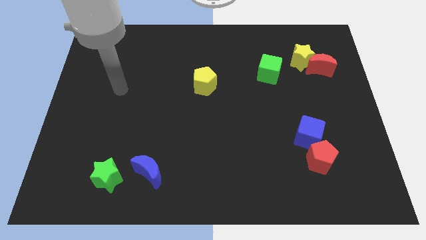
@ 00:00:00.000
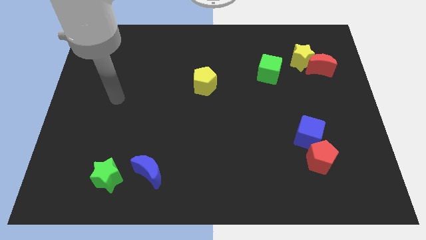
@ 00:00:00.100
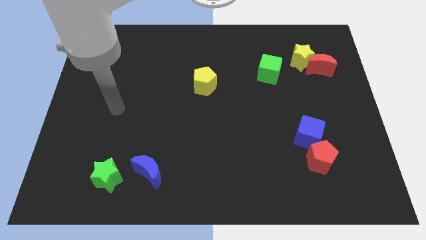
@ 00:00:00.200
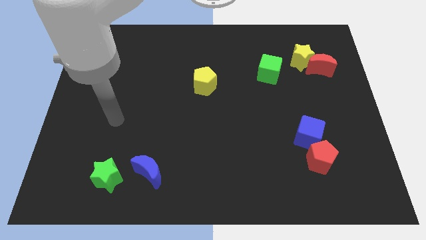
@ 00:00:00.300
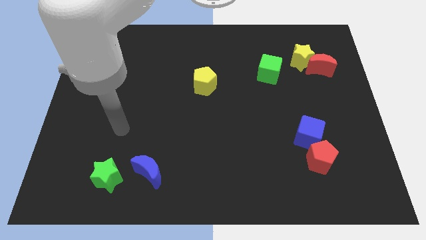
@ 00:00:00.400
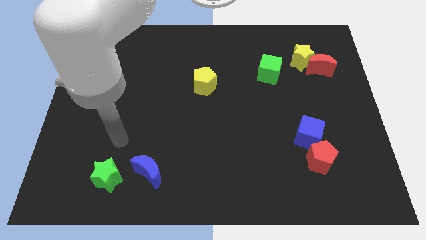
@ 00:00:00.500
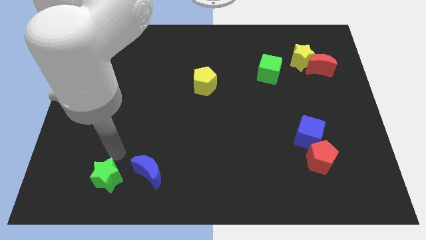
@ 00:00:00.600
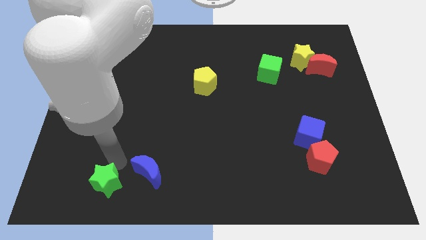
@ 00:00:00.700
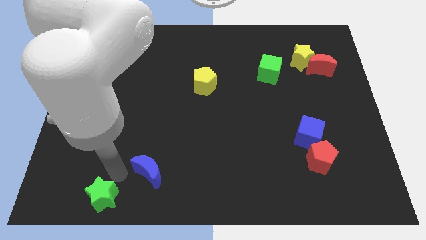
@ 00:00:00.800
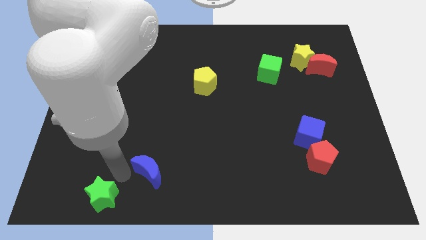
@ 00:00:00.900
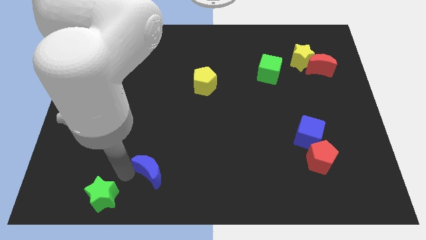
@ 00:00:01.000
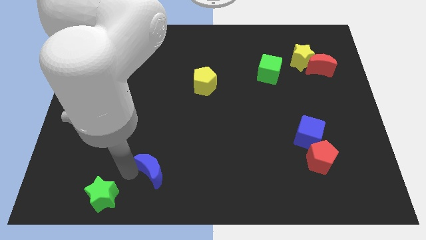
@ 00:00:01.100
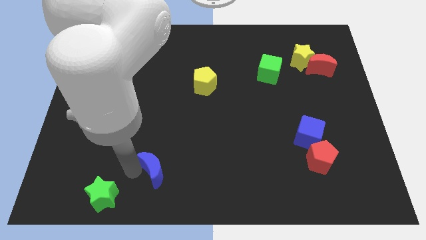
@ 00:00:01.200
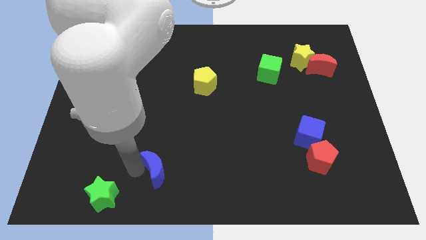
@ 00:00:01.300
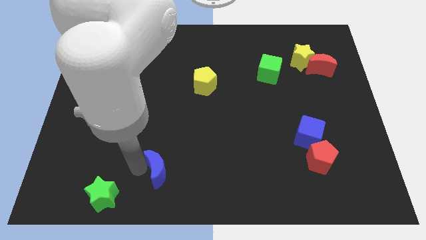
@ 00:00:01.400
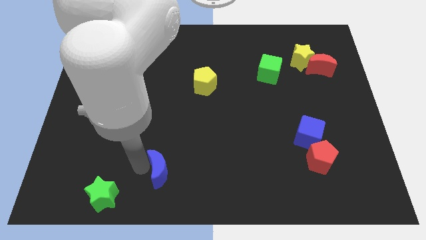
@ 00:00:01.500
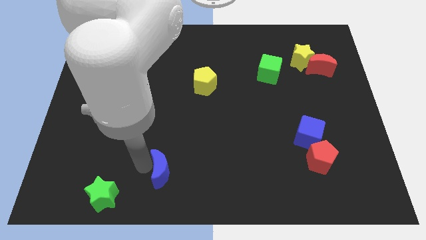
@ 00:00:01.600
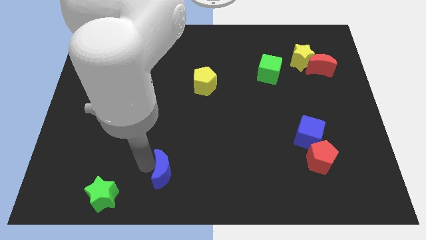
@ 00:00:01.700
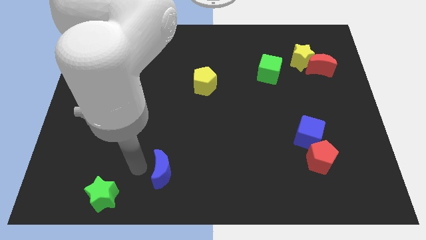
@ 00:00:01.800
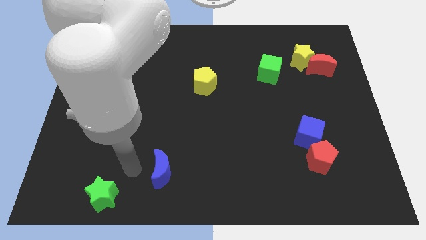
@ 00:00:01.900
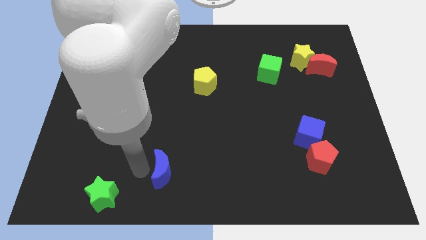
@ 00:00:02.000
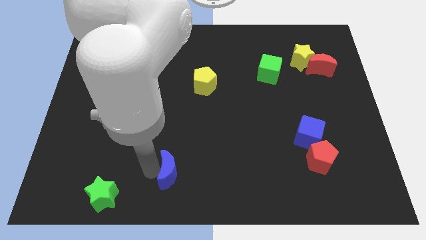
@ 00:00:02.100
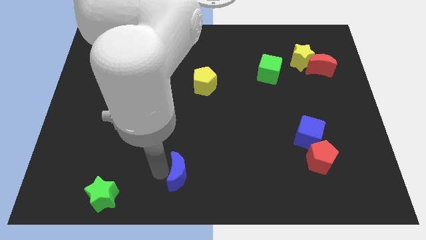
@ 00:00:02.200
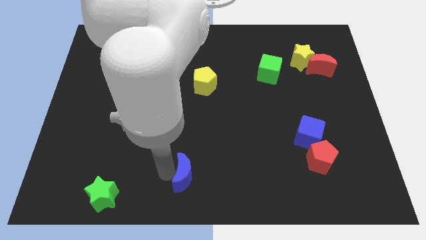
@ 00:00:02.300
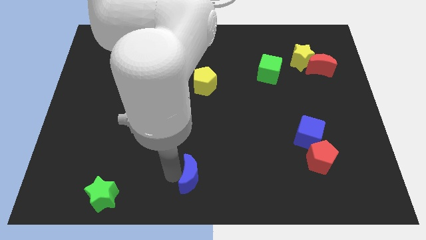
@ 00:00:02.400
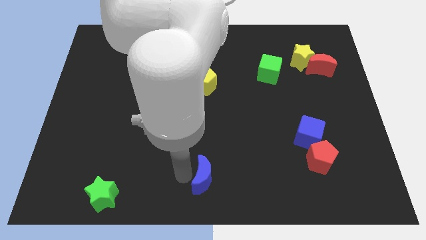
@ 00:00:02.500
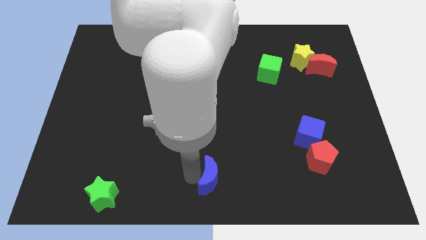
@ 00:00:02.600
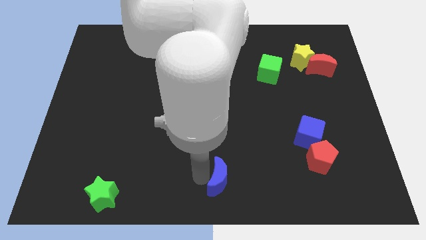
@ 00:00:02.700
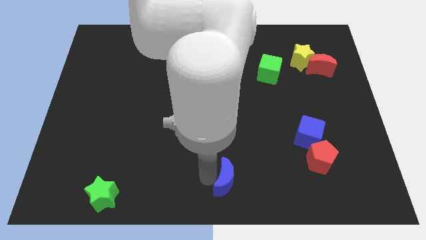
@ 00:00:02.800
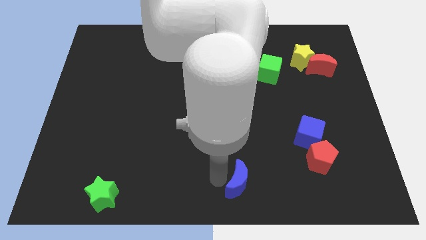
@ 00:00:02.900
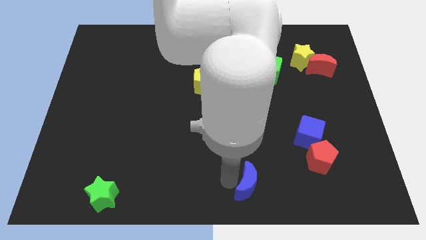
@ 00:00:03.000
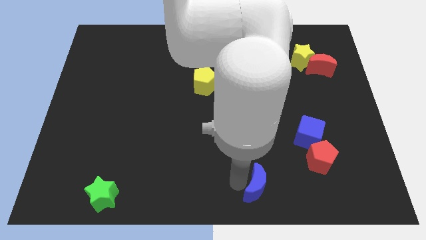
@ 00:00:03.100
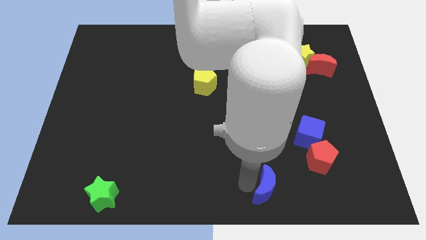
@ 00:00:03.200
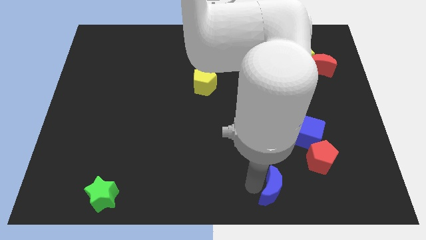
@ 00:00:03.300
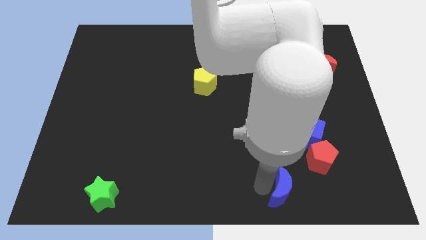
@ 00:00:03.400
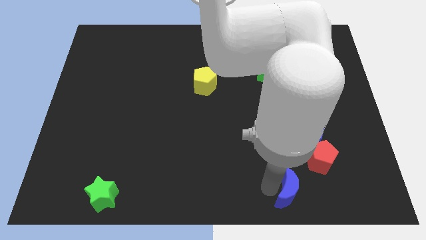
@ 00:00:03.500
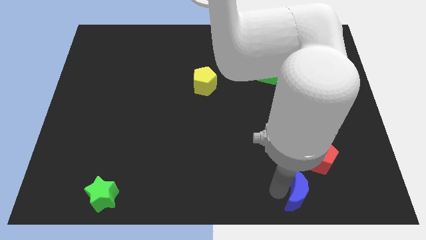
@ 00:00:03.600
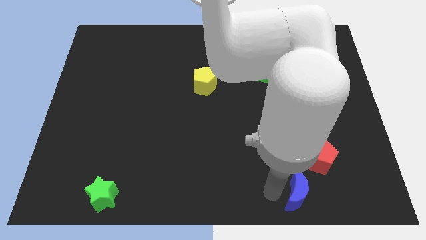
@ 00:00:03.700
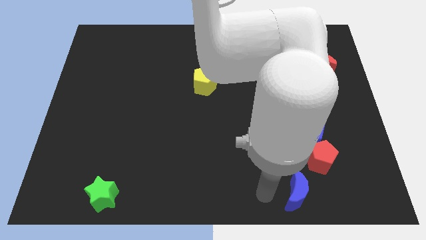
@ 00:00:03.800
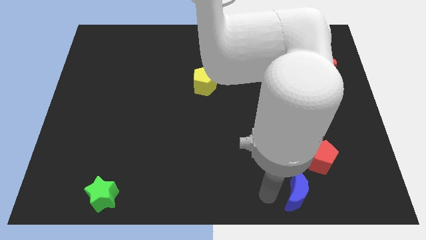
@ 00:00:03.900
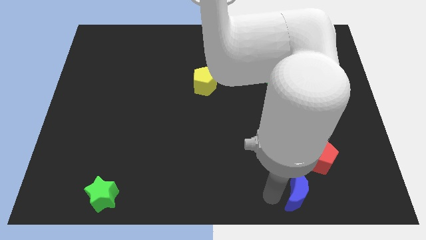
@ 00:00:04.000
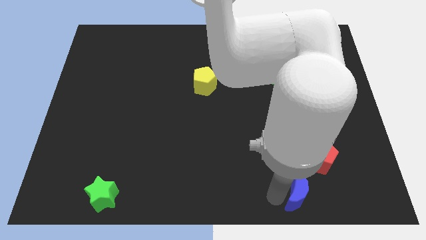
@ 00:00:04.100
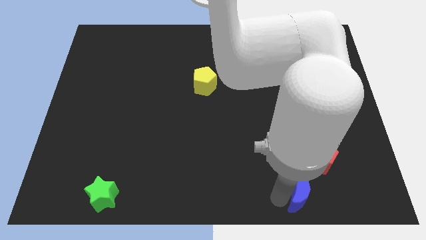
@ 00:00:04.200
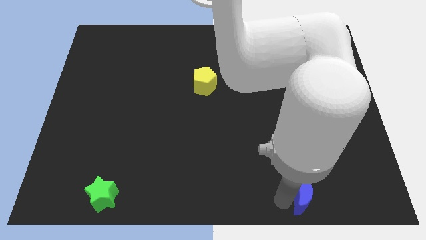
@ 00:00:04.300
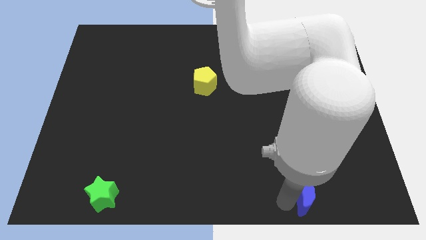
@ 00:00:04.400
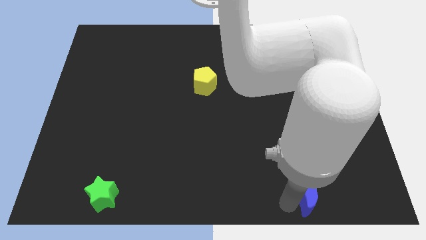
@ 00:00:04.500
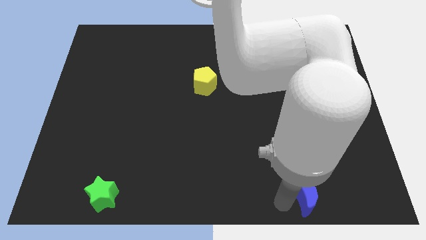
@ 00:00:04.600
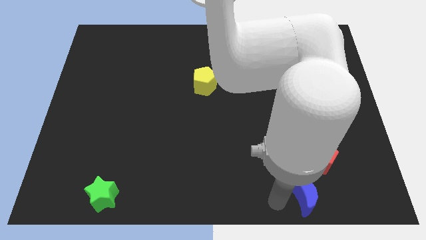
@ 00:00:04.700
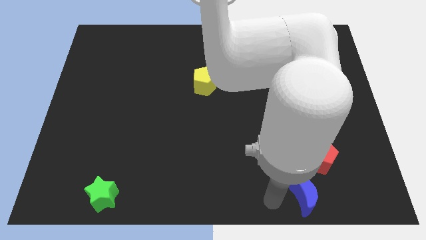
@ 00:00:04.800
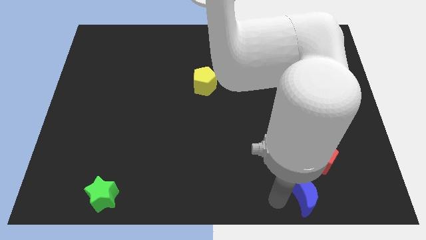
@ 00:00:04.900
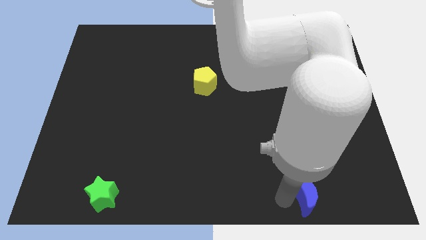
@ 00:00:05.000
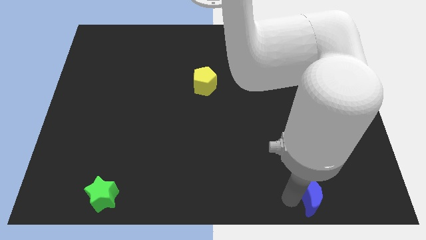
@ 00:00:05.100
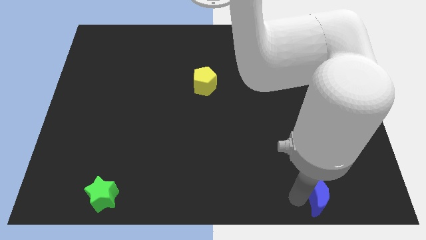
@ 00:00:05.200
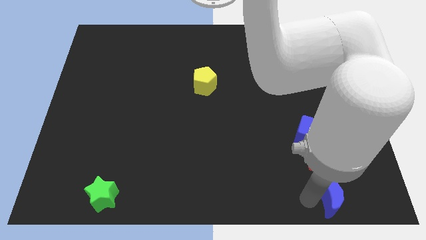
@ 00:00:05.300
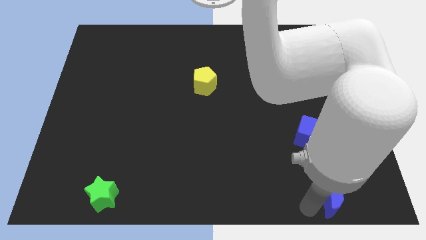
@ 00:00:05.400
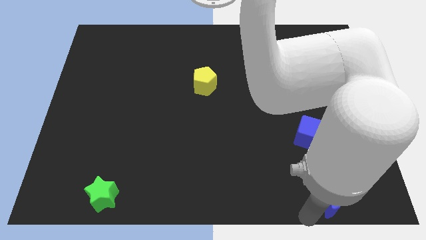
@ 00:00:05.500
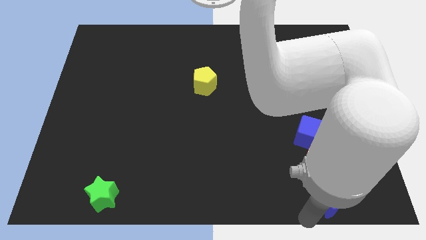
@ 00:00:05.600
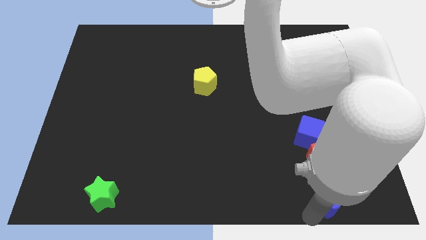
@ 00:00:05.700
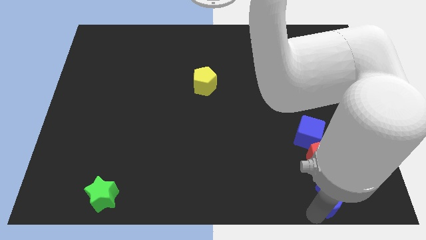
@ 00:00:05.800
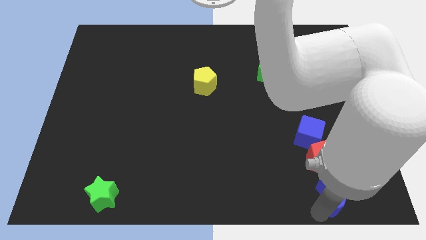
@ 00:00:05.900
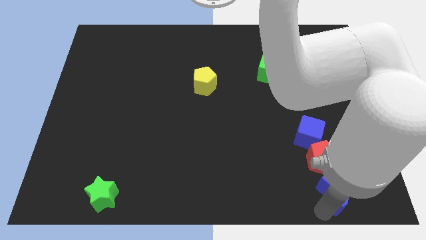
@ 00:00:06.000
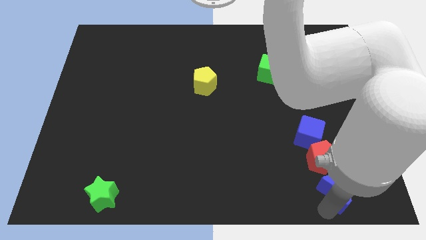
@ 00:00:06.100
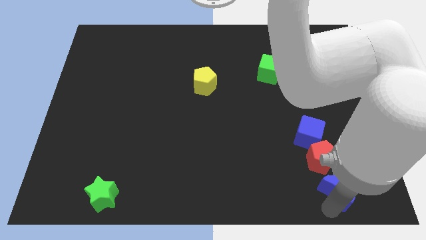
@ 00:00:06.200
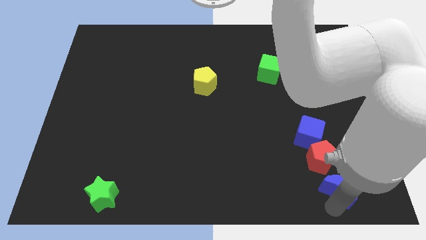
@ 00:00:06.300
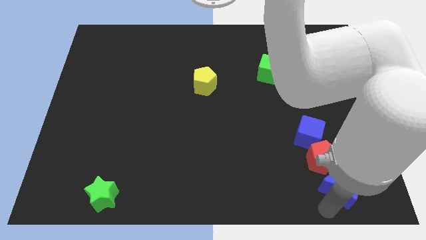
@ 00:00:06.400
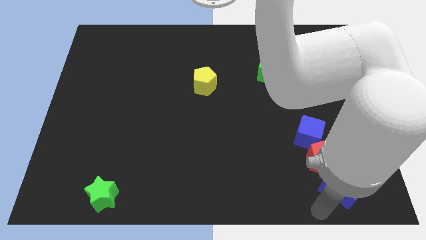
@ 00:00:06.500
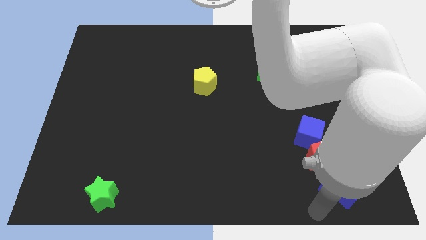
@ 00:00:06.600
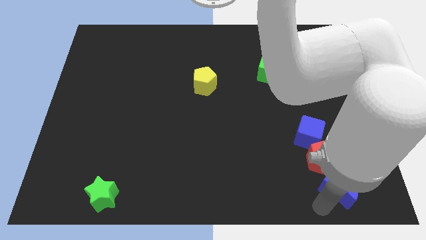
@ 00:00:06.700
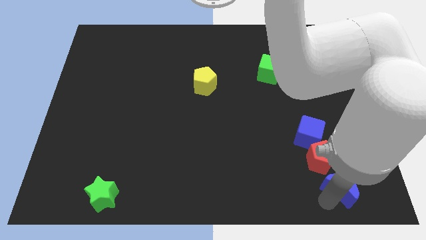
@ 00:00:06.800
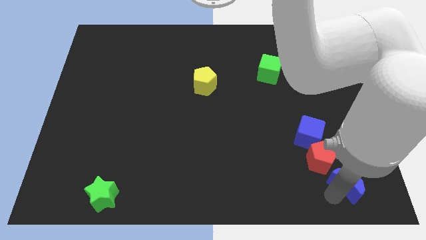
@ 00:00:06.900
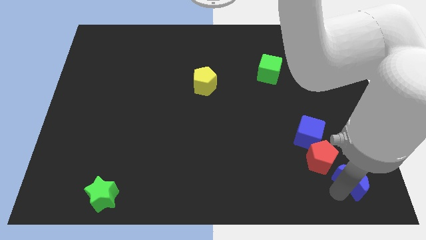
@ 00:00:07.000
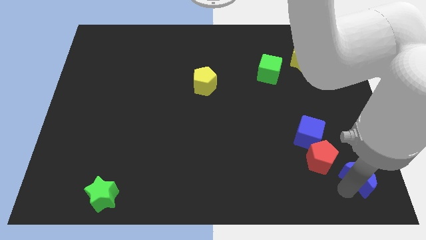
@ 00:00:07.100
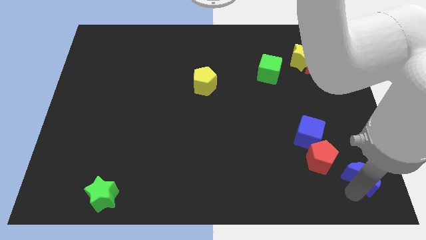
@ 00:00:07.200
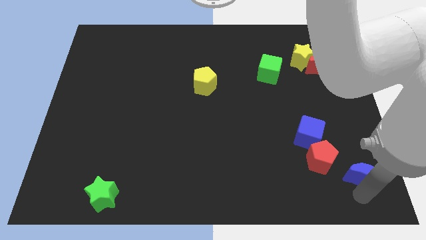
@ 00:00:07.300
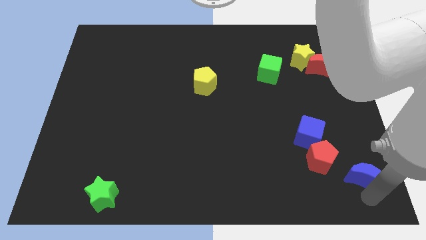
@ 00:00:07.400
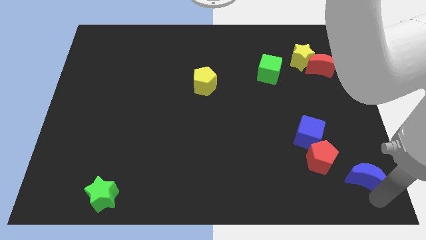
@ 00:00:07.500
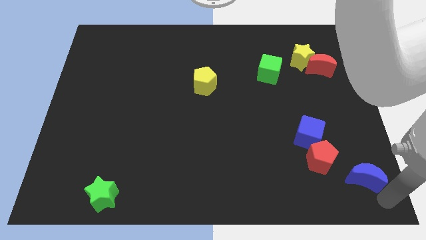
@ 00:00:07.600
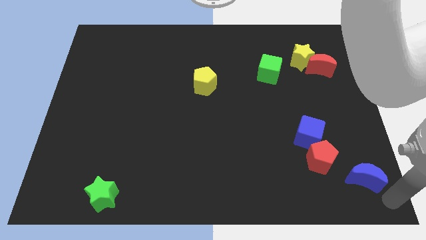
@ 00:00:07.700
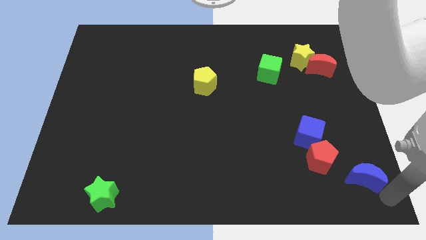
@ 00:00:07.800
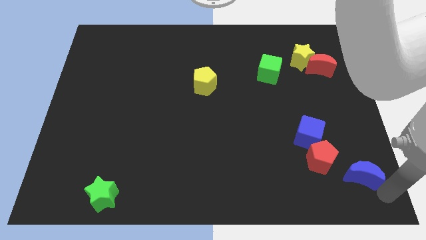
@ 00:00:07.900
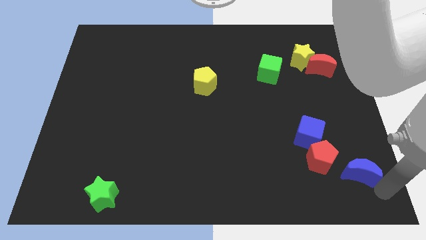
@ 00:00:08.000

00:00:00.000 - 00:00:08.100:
move the blue moon diagonally down and to the right of the blue cube
